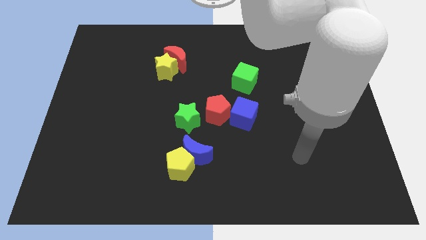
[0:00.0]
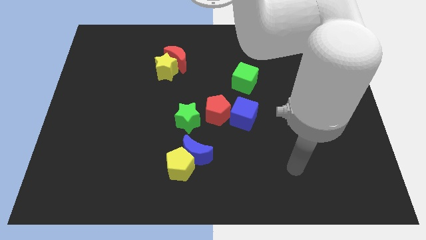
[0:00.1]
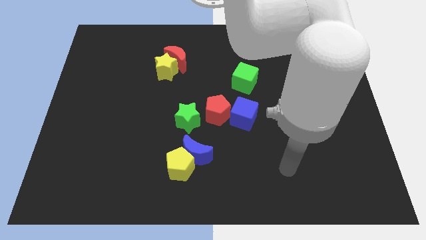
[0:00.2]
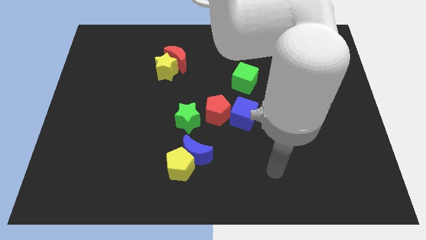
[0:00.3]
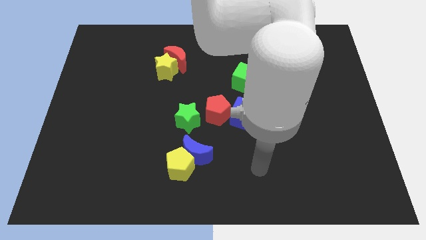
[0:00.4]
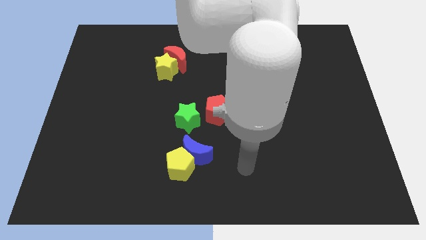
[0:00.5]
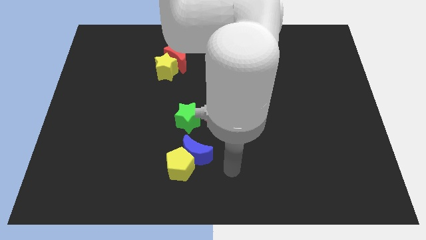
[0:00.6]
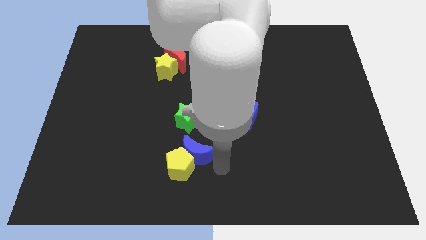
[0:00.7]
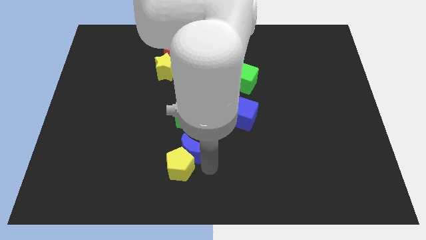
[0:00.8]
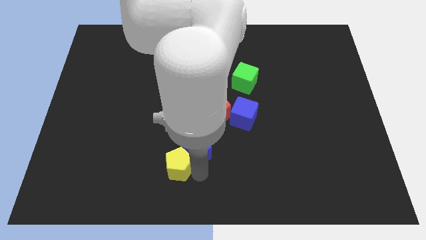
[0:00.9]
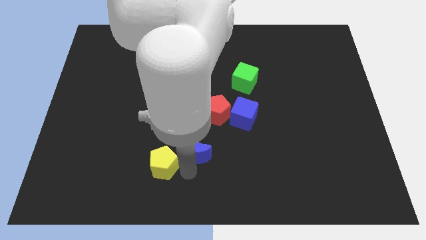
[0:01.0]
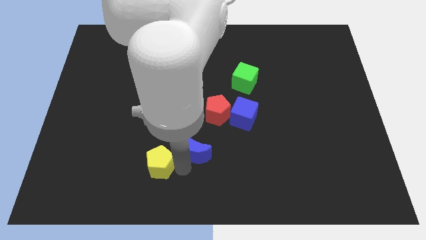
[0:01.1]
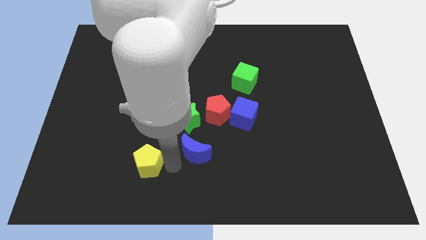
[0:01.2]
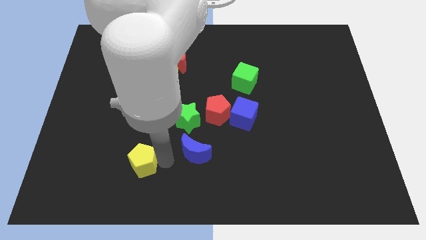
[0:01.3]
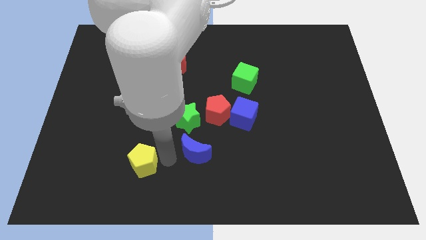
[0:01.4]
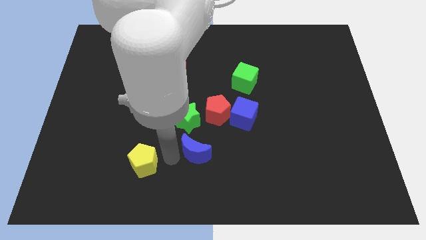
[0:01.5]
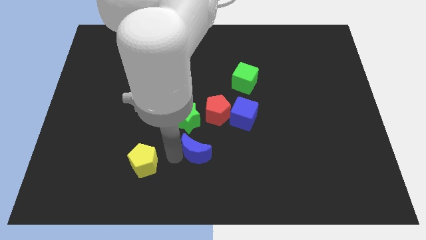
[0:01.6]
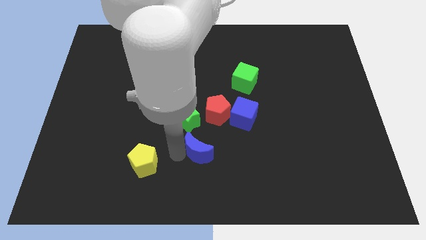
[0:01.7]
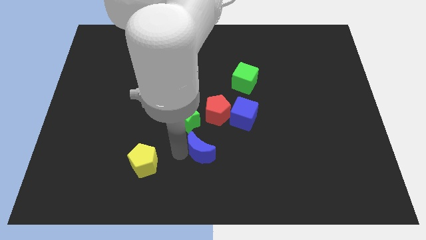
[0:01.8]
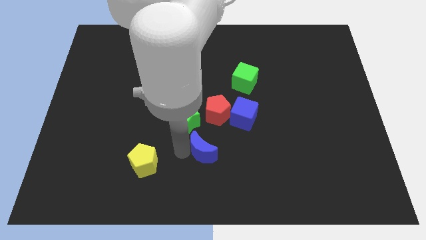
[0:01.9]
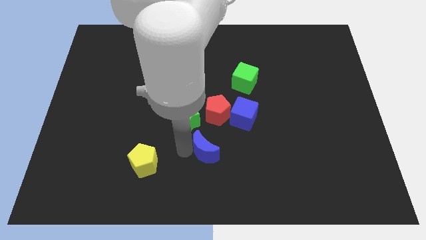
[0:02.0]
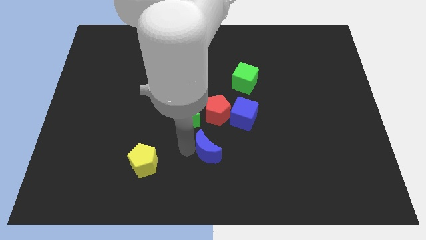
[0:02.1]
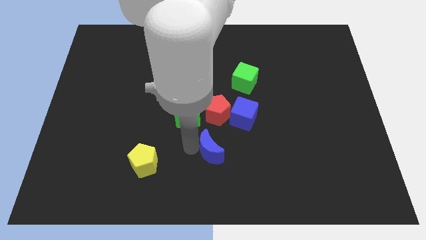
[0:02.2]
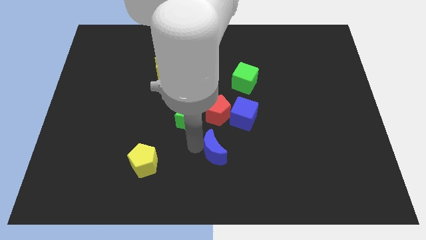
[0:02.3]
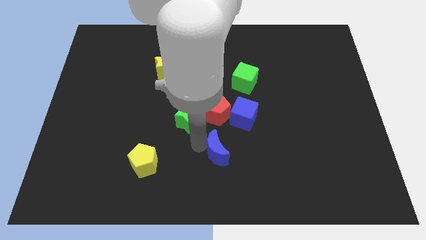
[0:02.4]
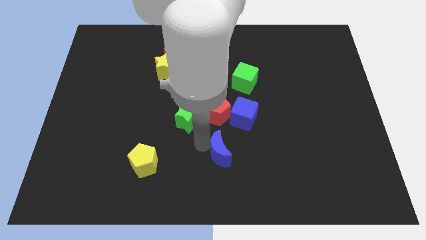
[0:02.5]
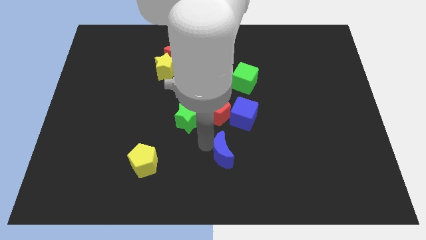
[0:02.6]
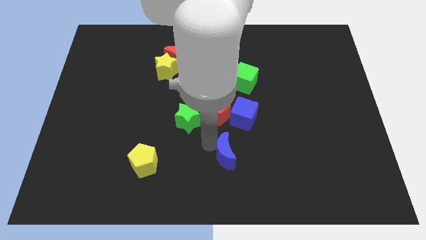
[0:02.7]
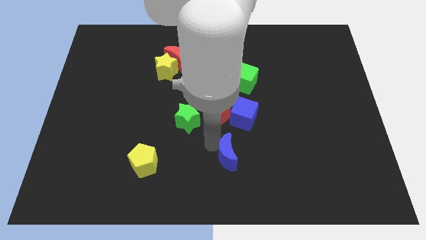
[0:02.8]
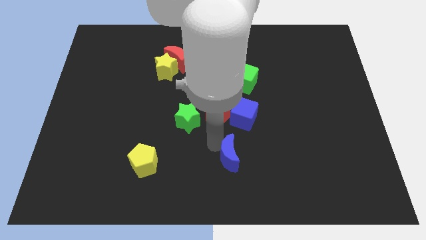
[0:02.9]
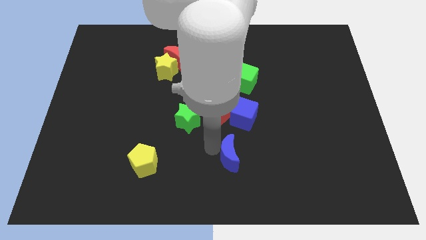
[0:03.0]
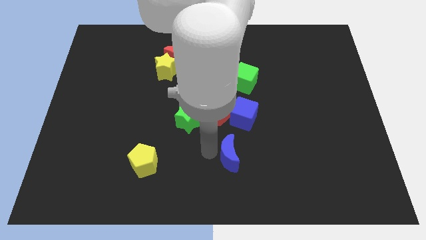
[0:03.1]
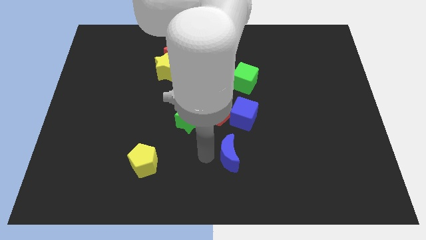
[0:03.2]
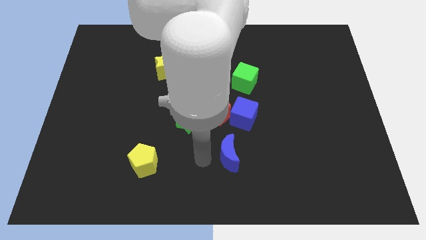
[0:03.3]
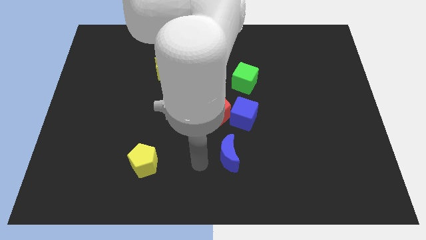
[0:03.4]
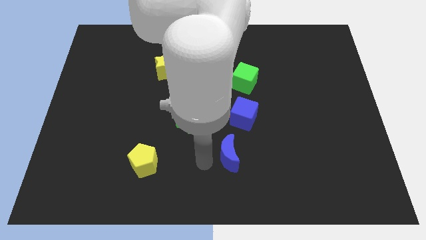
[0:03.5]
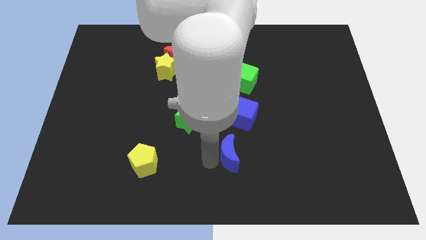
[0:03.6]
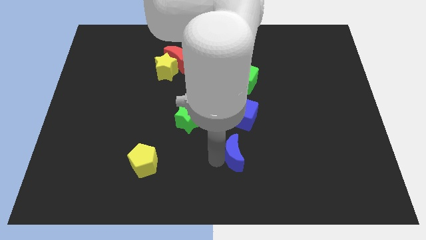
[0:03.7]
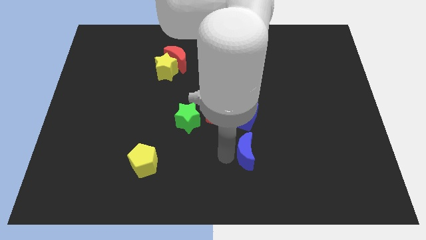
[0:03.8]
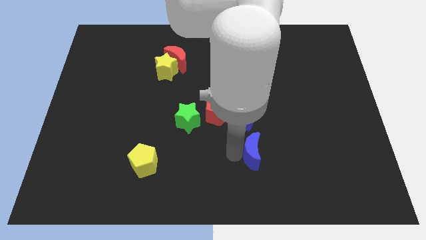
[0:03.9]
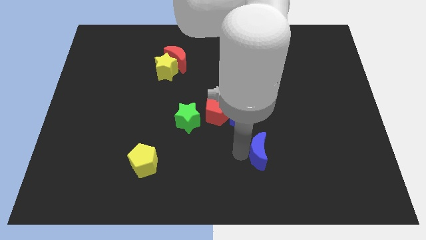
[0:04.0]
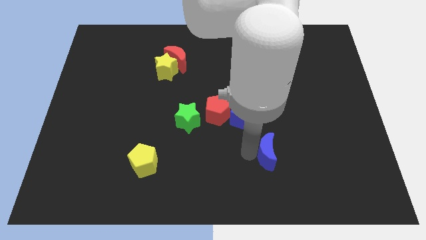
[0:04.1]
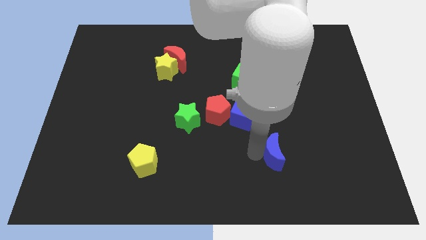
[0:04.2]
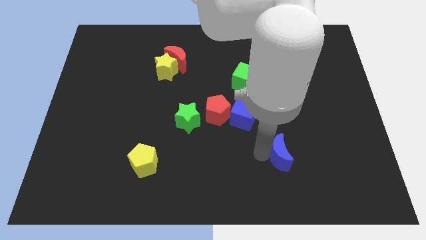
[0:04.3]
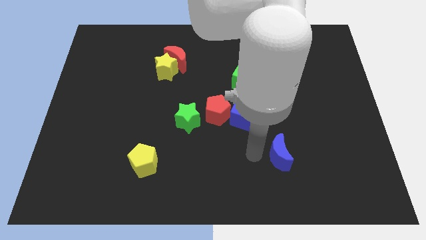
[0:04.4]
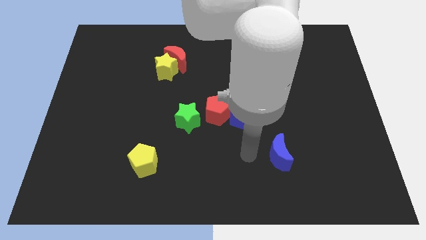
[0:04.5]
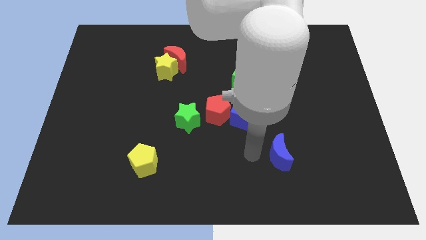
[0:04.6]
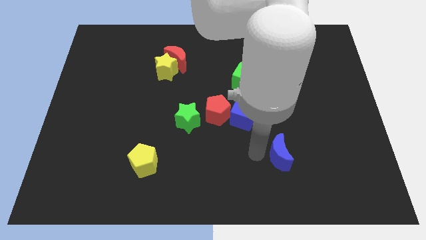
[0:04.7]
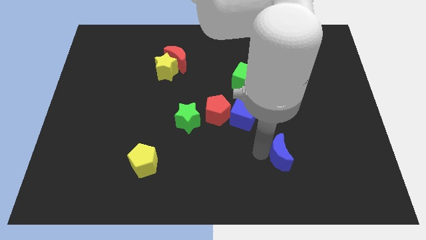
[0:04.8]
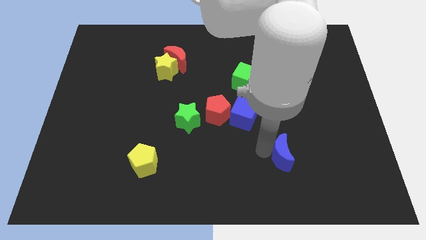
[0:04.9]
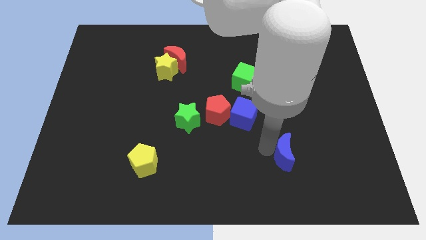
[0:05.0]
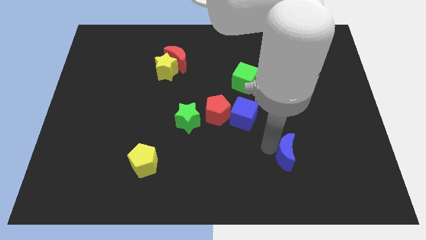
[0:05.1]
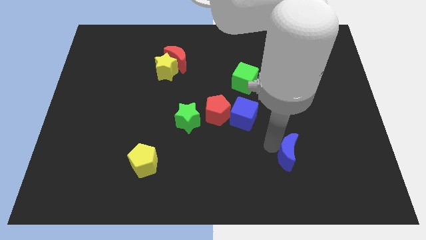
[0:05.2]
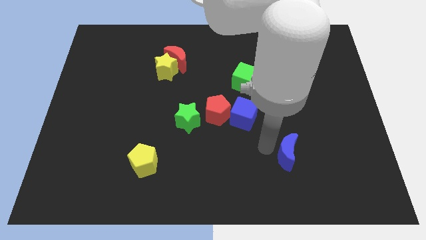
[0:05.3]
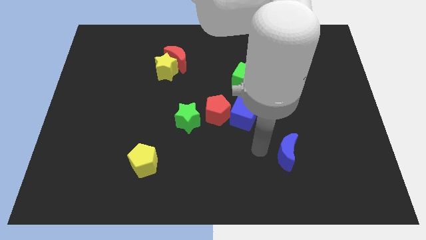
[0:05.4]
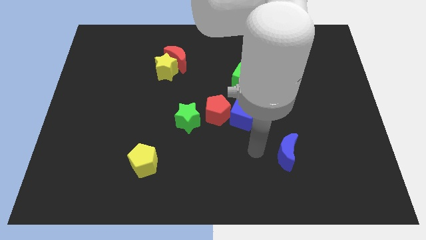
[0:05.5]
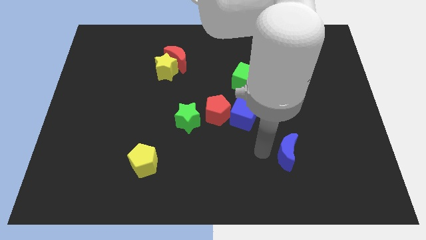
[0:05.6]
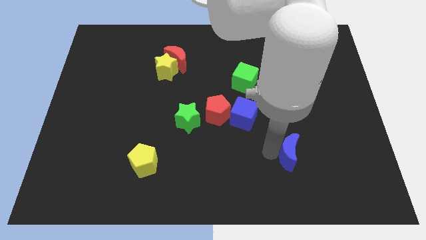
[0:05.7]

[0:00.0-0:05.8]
slide the blue moon to the right

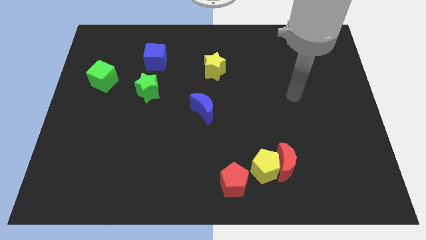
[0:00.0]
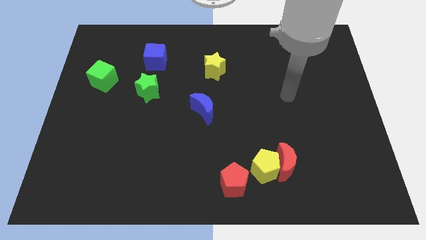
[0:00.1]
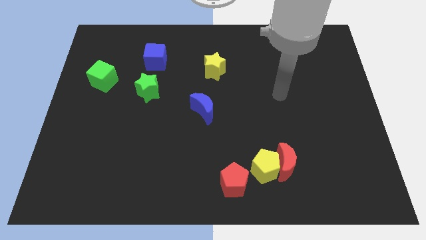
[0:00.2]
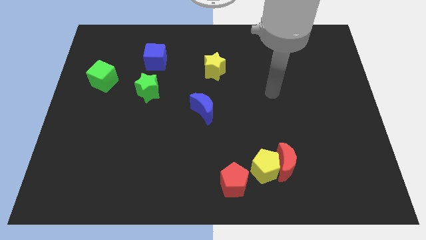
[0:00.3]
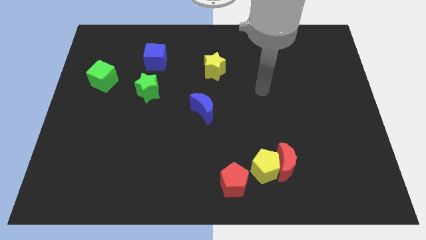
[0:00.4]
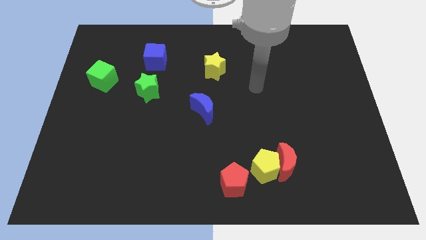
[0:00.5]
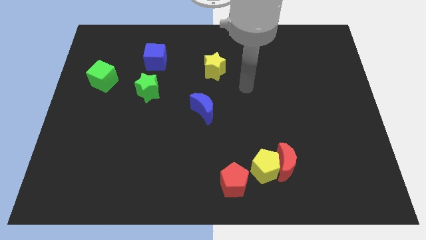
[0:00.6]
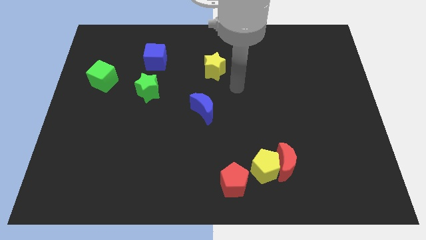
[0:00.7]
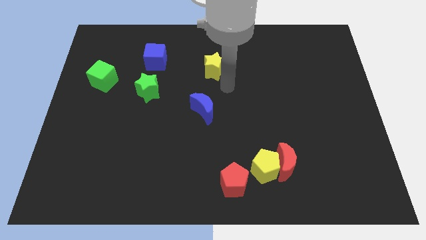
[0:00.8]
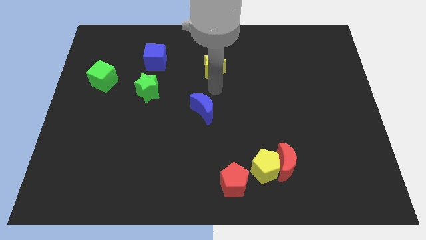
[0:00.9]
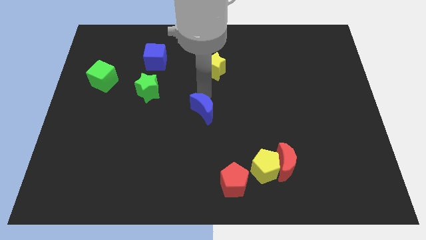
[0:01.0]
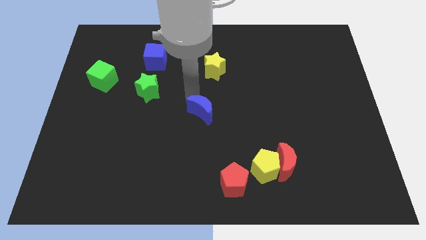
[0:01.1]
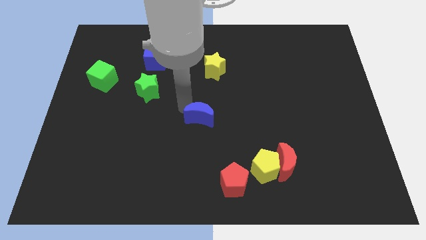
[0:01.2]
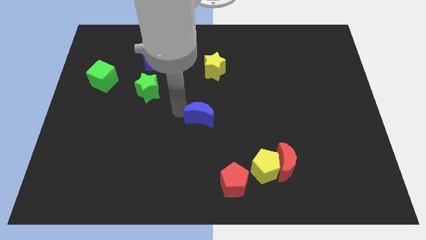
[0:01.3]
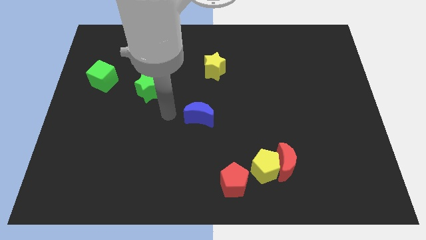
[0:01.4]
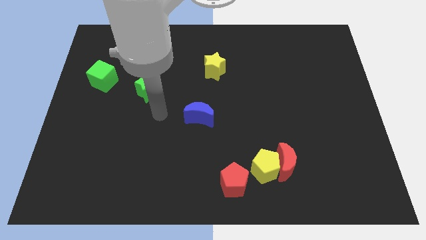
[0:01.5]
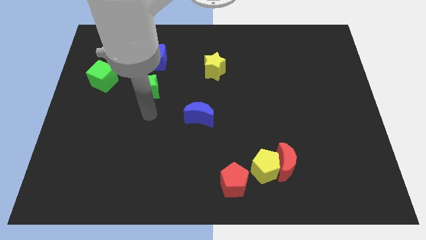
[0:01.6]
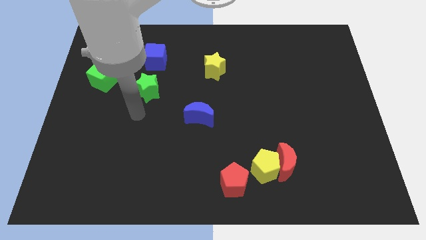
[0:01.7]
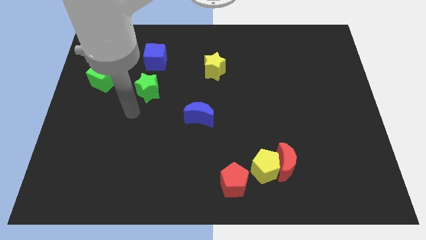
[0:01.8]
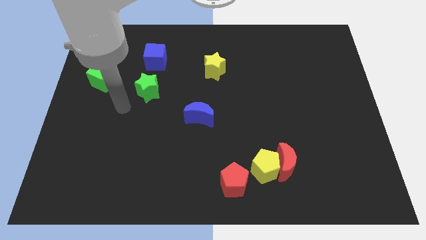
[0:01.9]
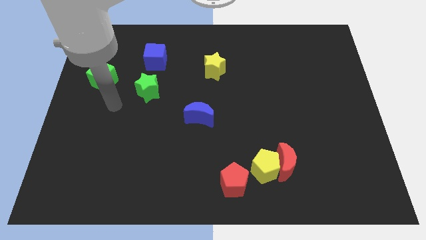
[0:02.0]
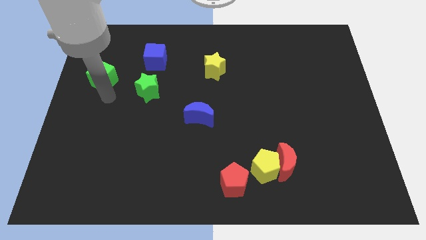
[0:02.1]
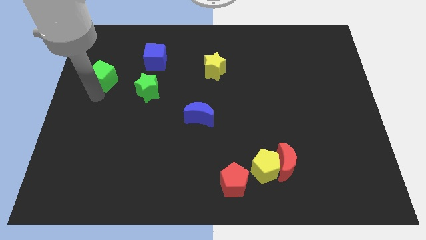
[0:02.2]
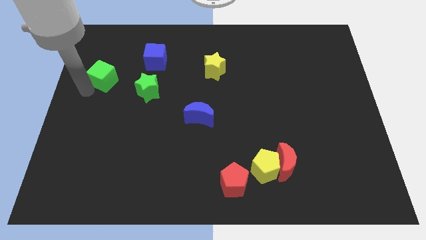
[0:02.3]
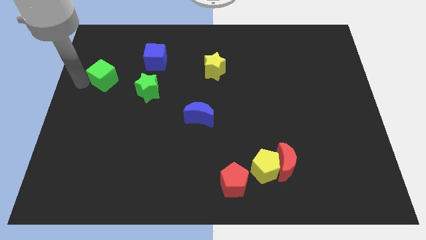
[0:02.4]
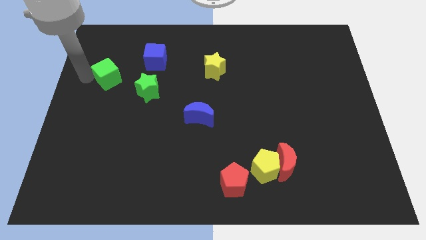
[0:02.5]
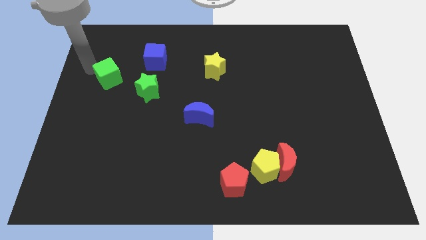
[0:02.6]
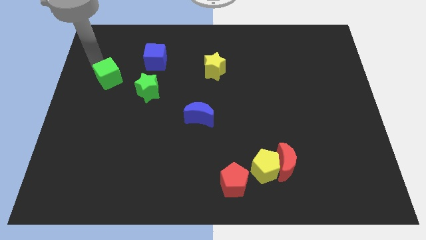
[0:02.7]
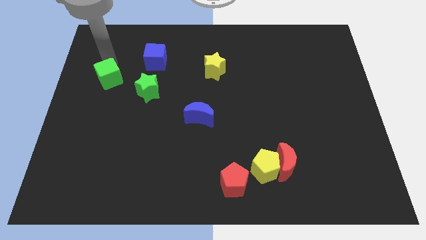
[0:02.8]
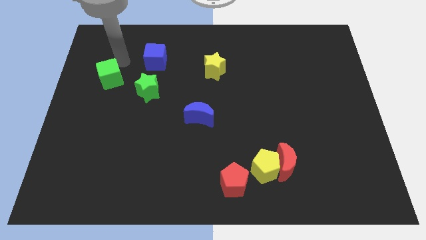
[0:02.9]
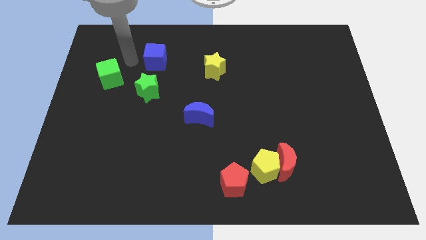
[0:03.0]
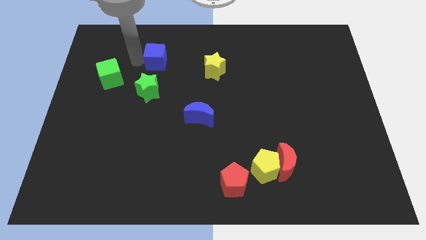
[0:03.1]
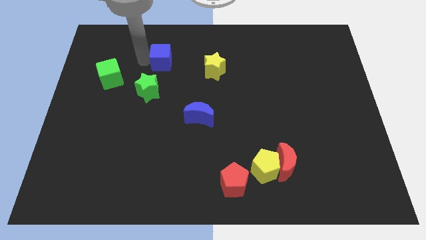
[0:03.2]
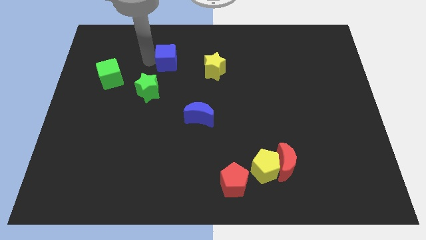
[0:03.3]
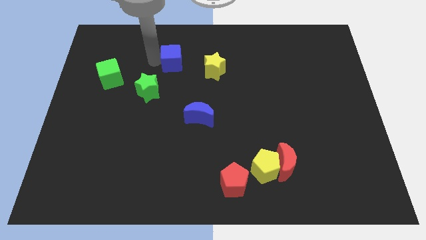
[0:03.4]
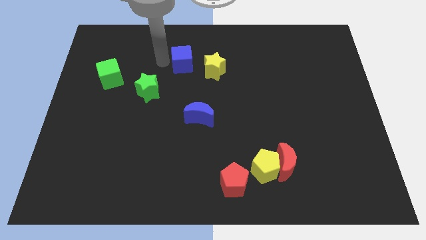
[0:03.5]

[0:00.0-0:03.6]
slightly slide the blue cube to the right
